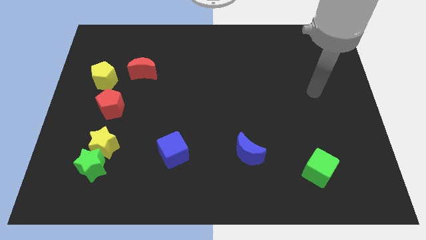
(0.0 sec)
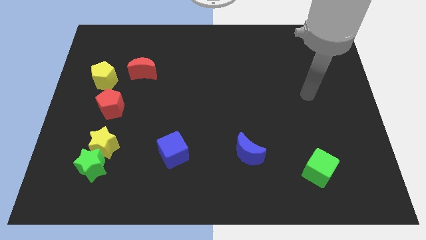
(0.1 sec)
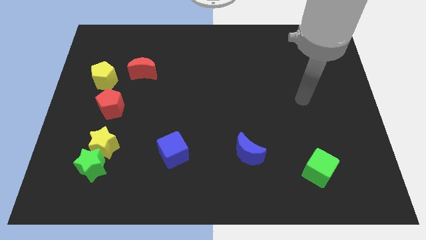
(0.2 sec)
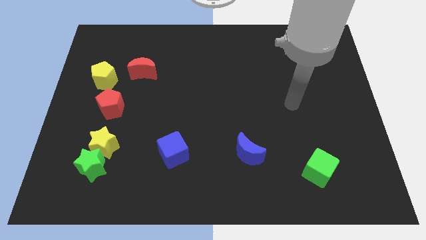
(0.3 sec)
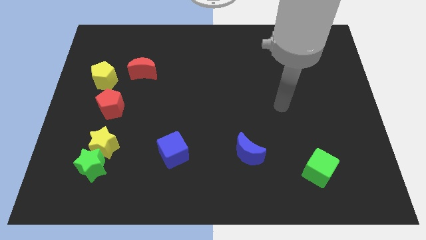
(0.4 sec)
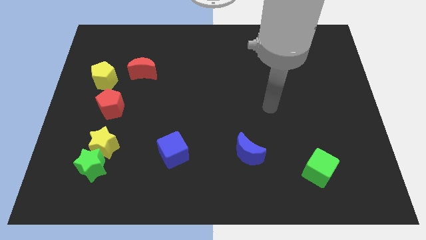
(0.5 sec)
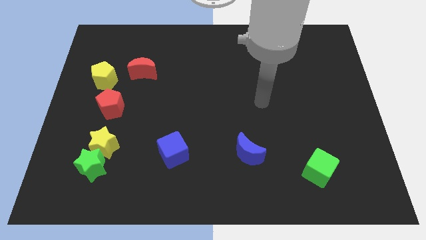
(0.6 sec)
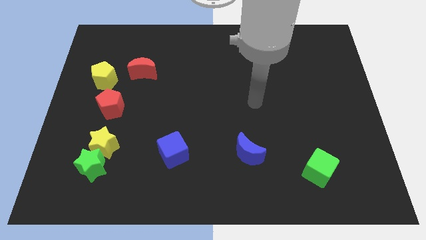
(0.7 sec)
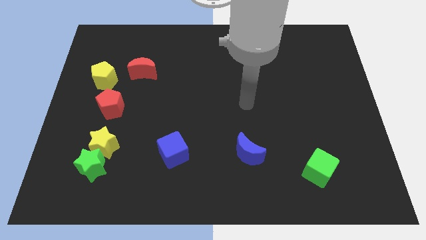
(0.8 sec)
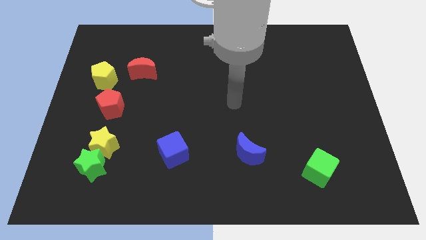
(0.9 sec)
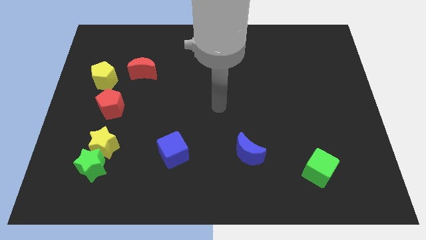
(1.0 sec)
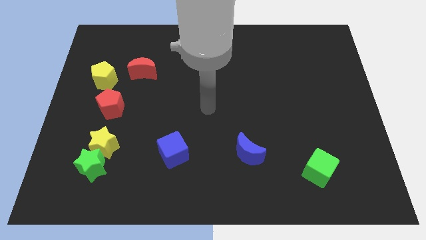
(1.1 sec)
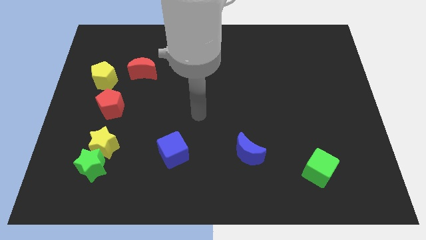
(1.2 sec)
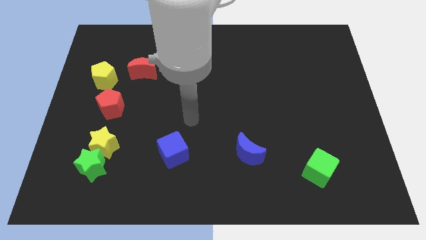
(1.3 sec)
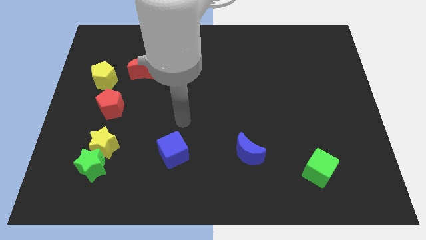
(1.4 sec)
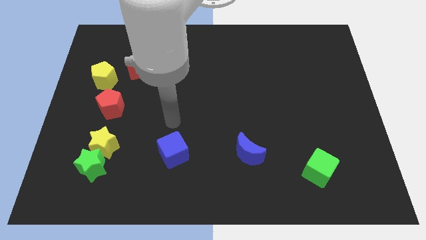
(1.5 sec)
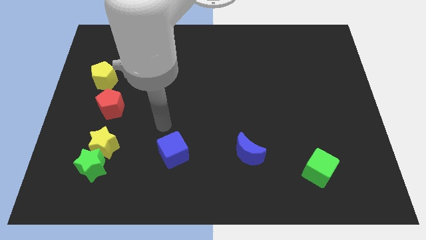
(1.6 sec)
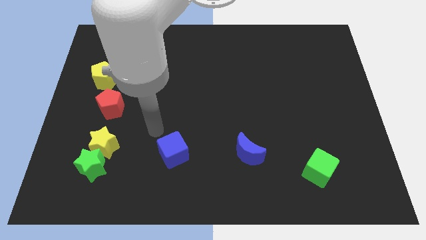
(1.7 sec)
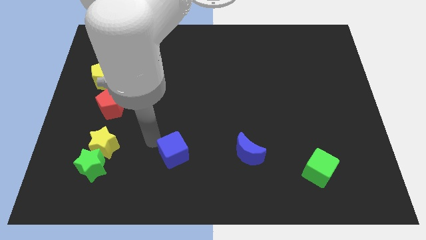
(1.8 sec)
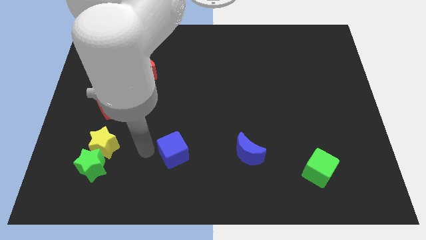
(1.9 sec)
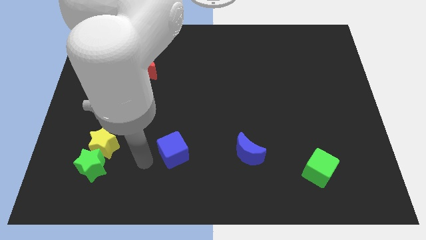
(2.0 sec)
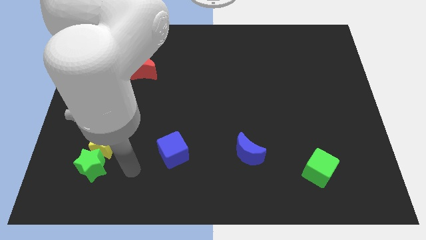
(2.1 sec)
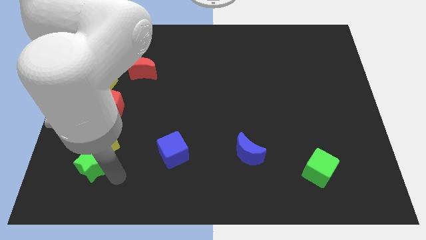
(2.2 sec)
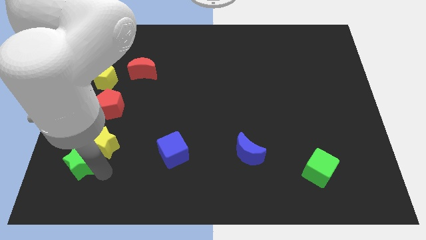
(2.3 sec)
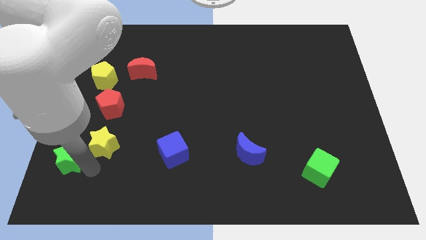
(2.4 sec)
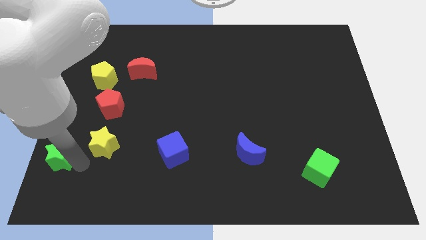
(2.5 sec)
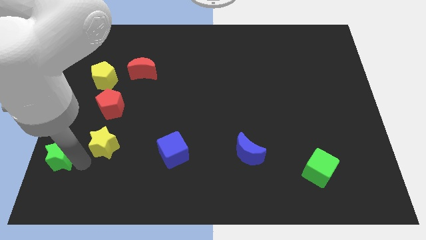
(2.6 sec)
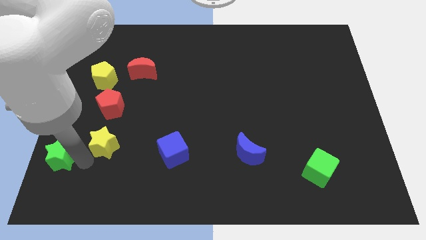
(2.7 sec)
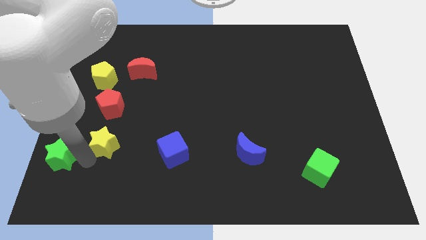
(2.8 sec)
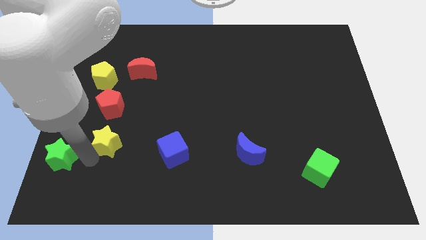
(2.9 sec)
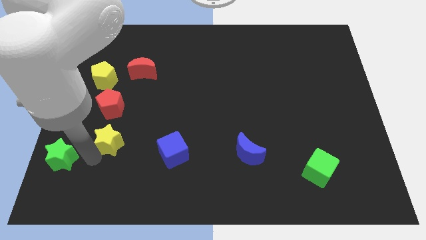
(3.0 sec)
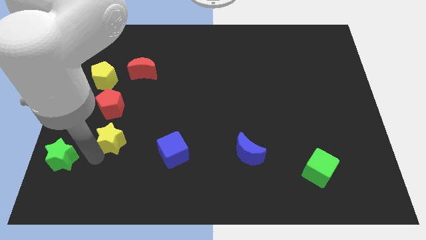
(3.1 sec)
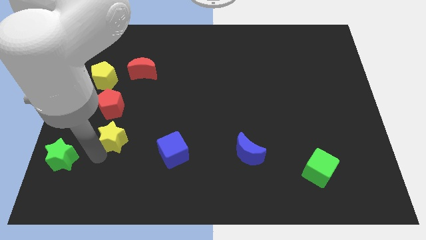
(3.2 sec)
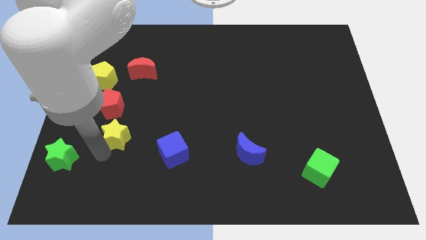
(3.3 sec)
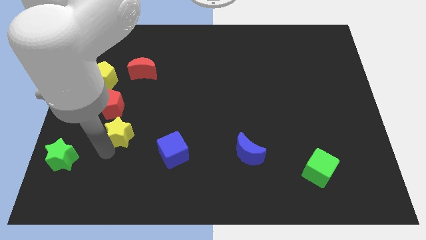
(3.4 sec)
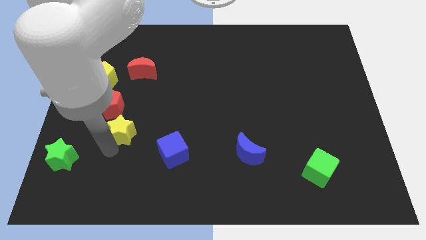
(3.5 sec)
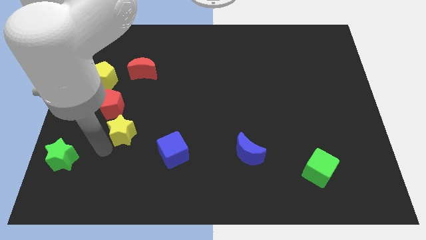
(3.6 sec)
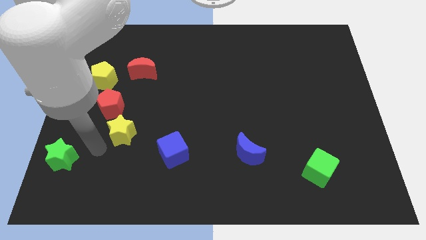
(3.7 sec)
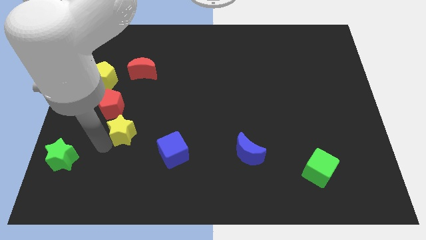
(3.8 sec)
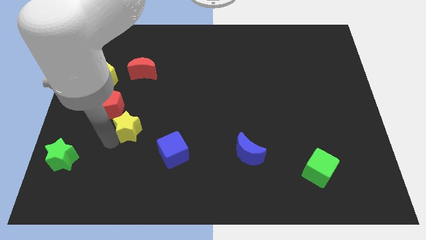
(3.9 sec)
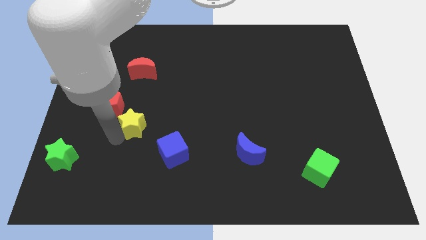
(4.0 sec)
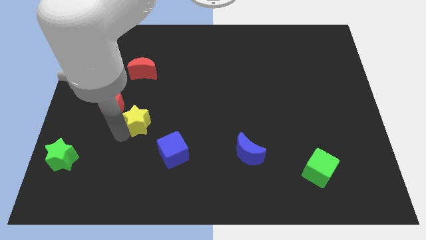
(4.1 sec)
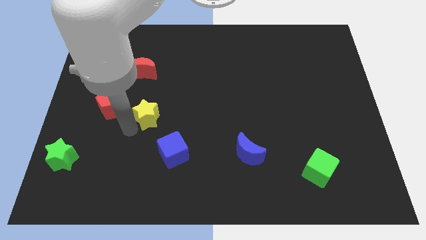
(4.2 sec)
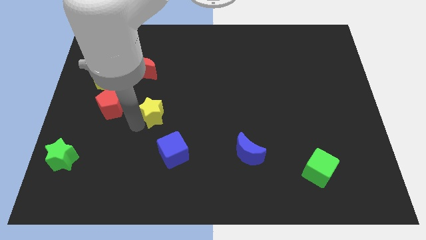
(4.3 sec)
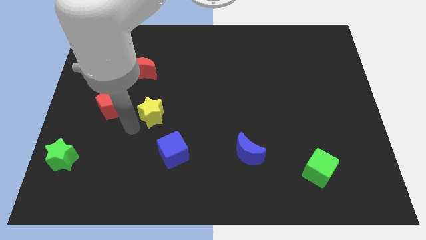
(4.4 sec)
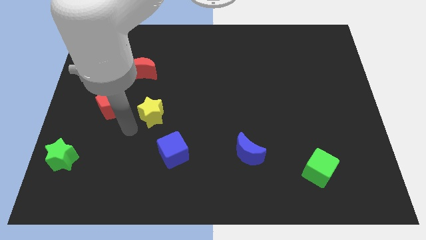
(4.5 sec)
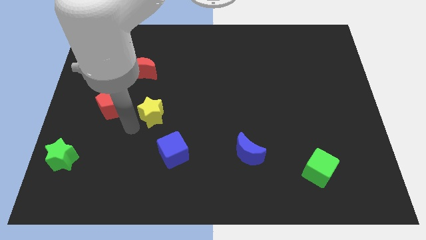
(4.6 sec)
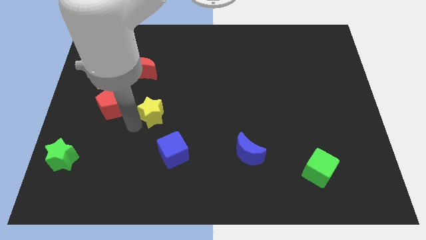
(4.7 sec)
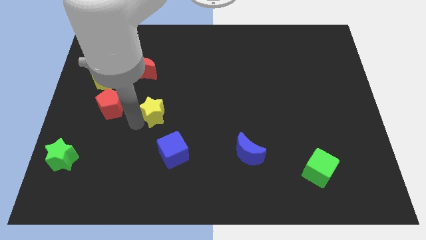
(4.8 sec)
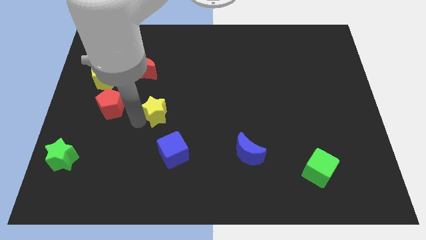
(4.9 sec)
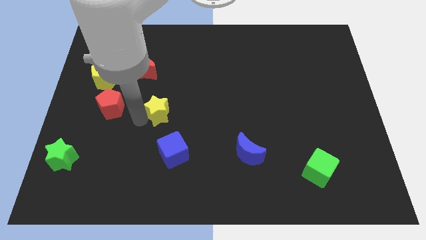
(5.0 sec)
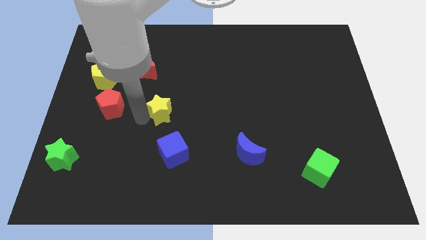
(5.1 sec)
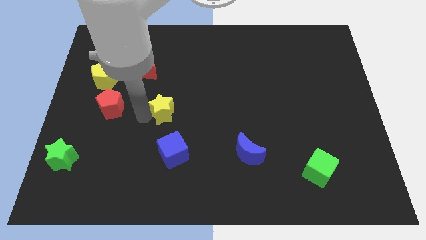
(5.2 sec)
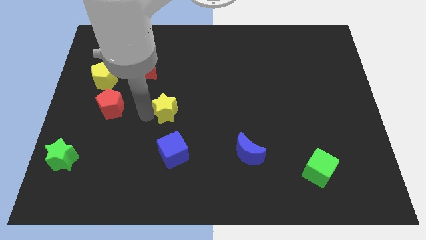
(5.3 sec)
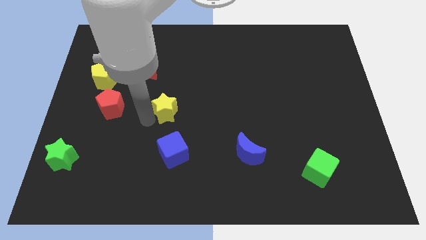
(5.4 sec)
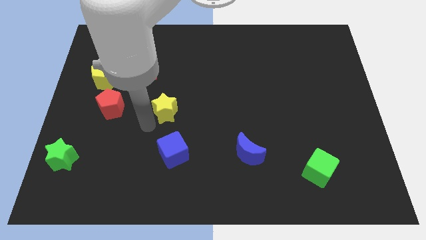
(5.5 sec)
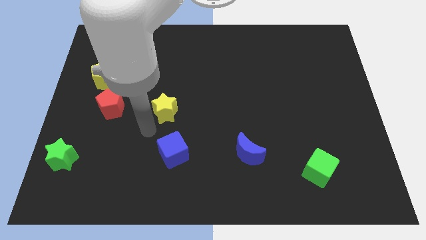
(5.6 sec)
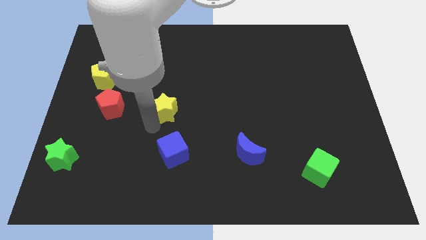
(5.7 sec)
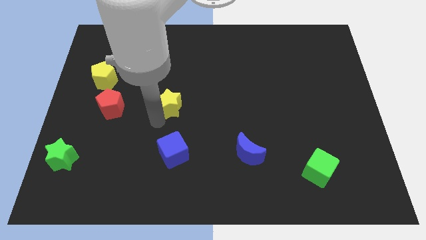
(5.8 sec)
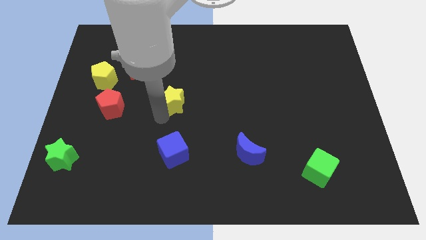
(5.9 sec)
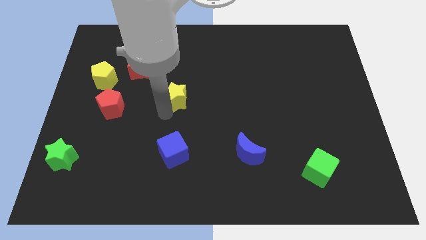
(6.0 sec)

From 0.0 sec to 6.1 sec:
push the yellow star upwards and then right

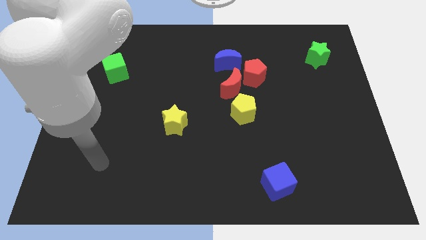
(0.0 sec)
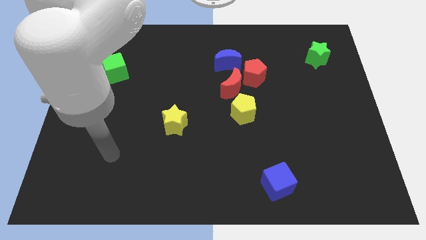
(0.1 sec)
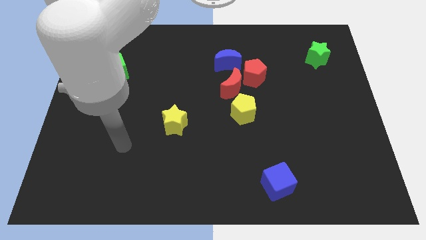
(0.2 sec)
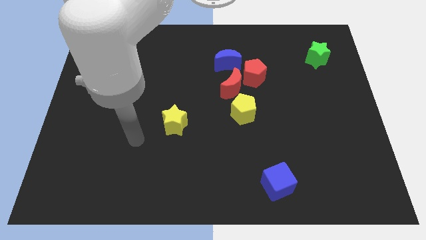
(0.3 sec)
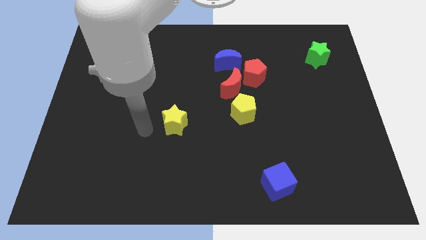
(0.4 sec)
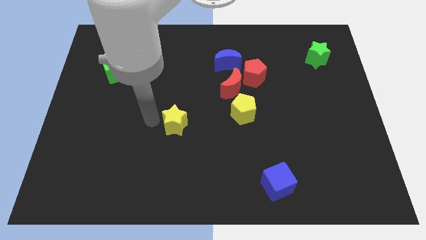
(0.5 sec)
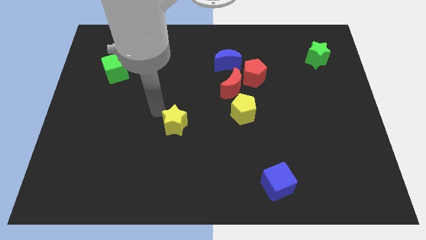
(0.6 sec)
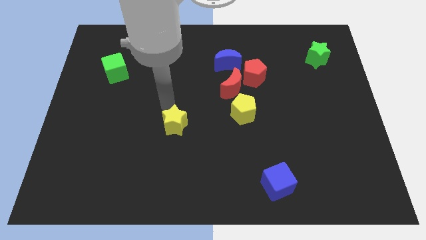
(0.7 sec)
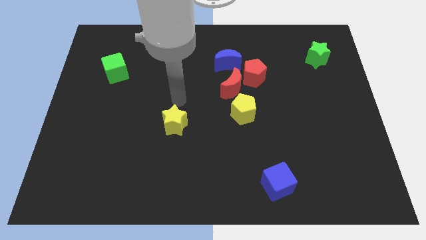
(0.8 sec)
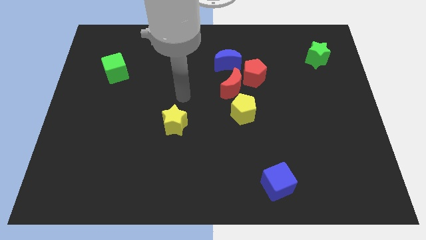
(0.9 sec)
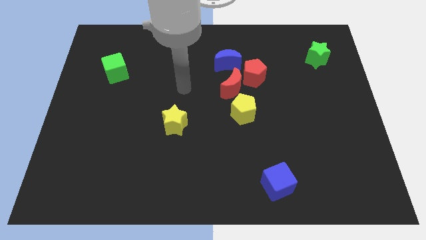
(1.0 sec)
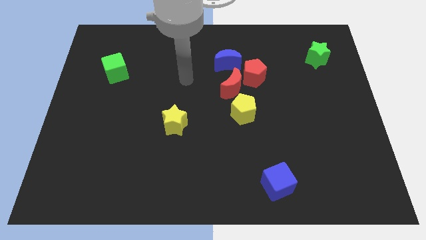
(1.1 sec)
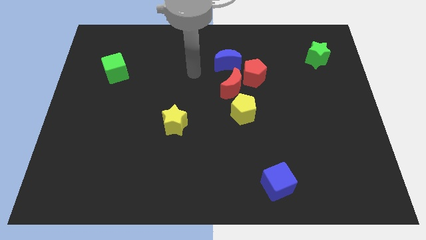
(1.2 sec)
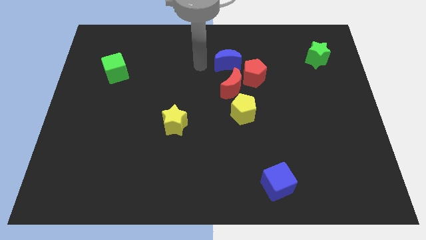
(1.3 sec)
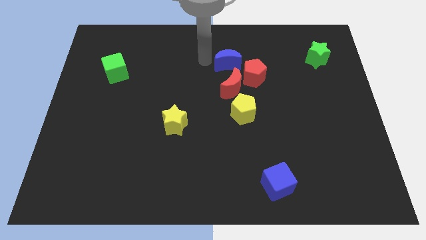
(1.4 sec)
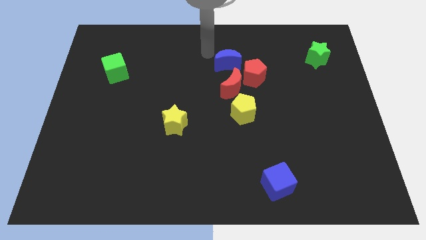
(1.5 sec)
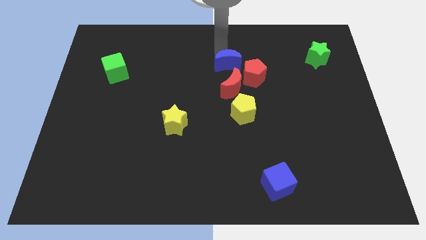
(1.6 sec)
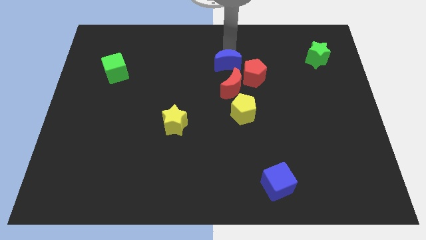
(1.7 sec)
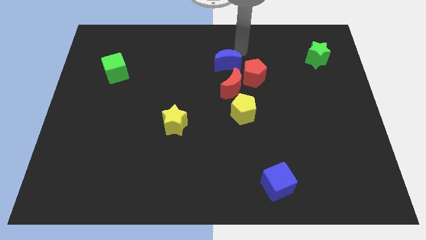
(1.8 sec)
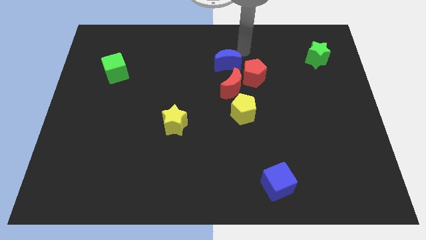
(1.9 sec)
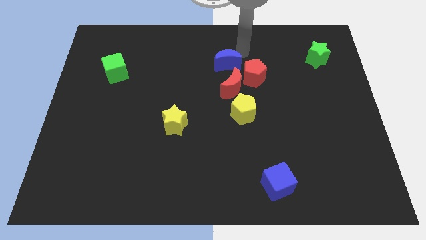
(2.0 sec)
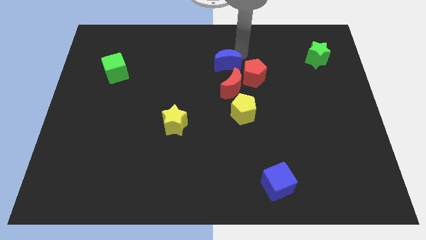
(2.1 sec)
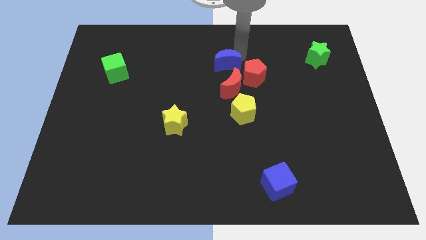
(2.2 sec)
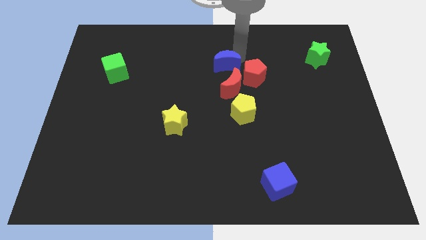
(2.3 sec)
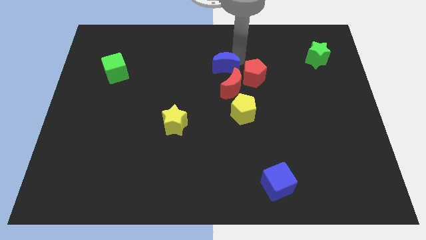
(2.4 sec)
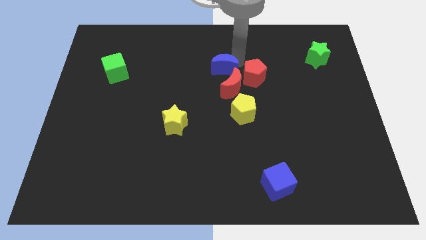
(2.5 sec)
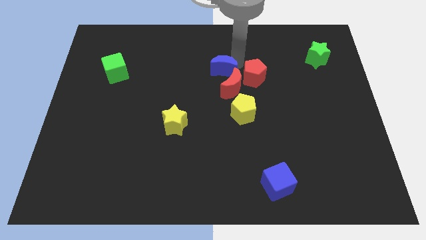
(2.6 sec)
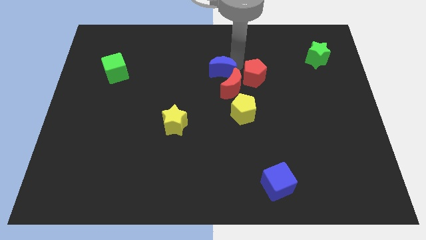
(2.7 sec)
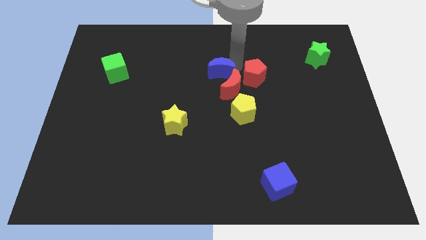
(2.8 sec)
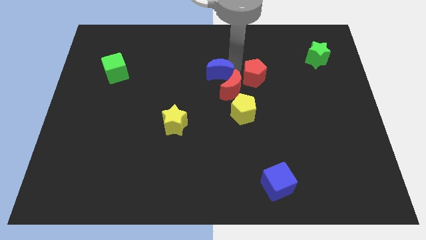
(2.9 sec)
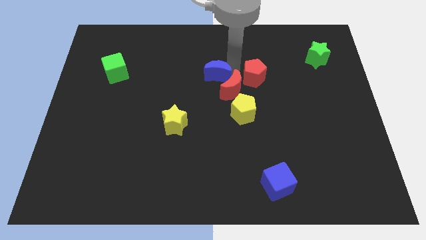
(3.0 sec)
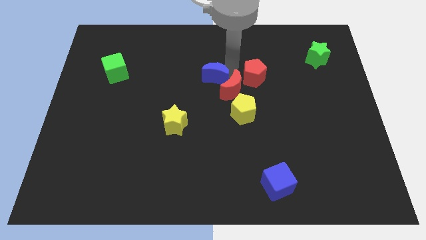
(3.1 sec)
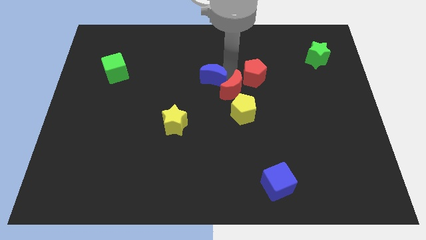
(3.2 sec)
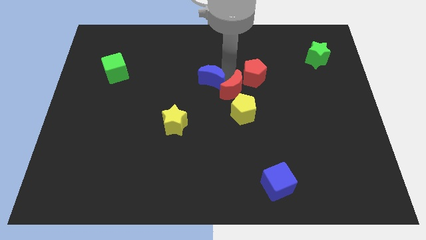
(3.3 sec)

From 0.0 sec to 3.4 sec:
push the blue moon diagonally downwards and left slightly
